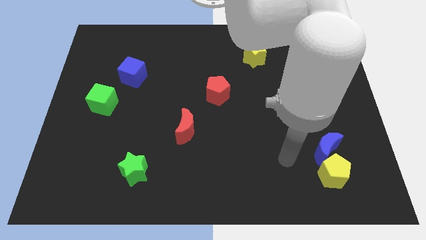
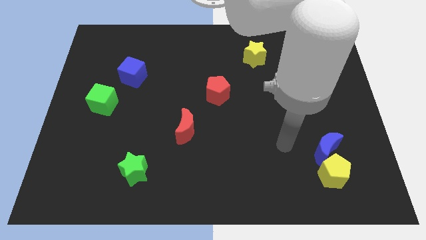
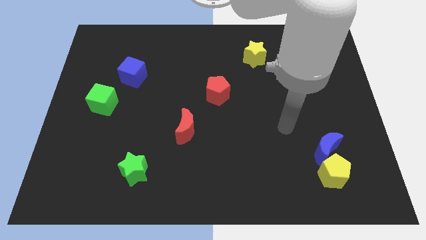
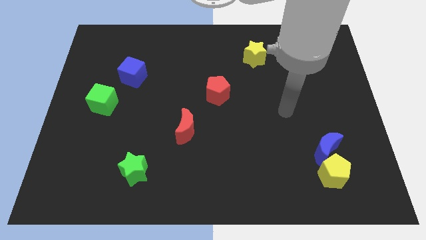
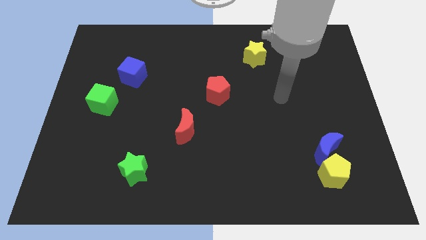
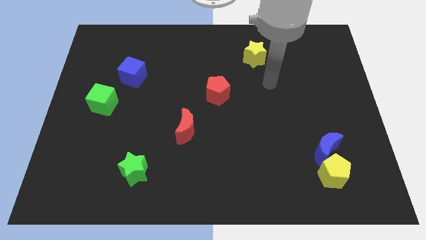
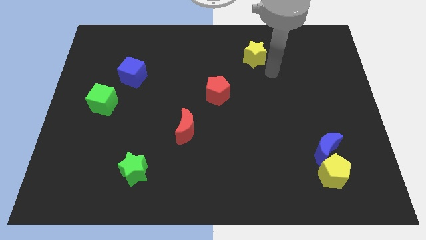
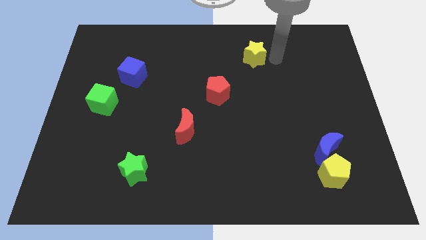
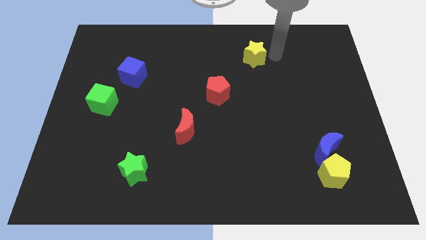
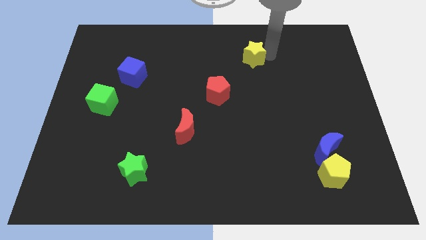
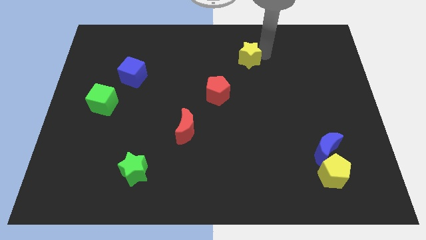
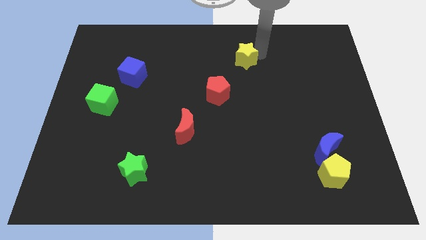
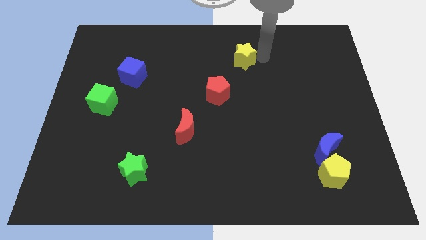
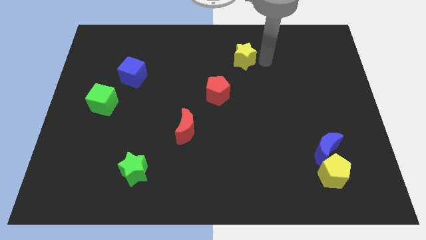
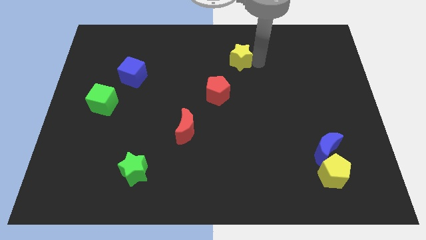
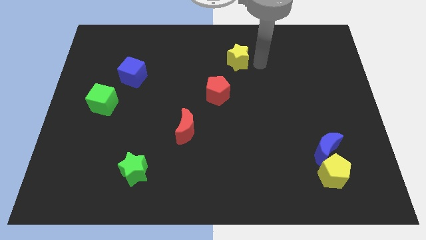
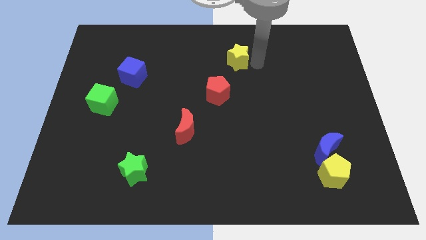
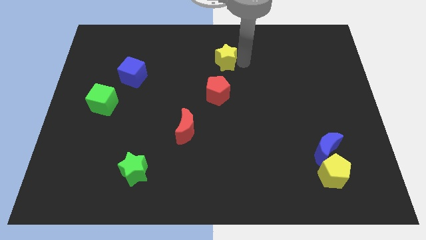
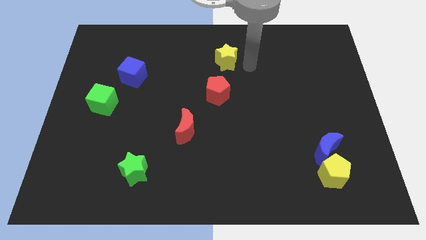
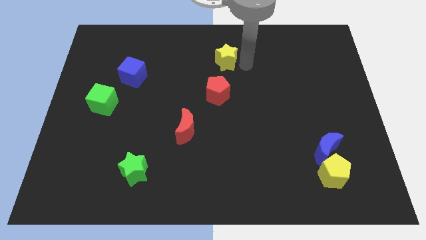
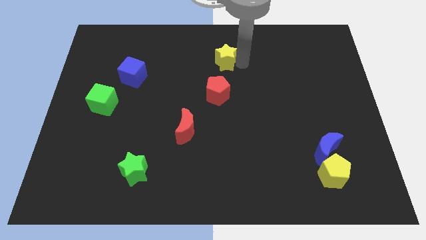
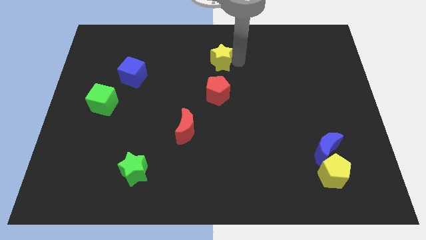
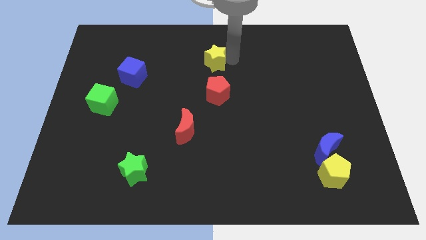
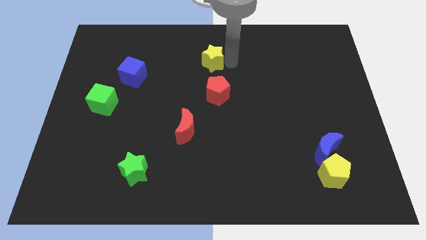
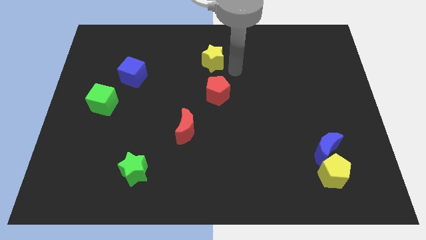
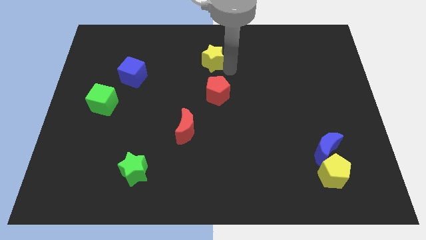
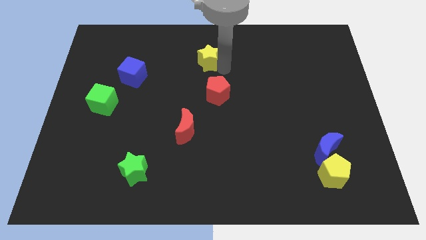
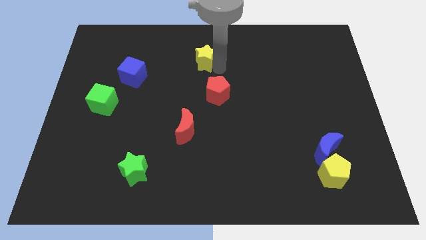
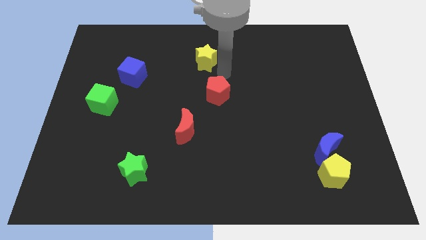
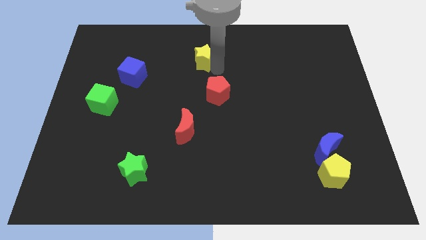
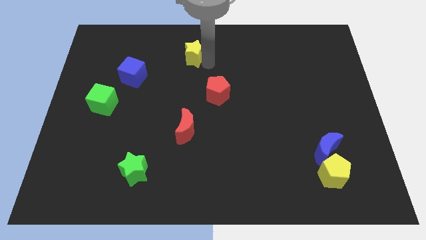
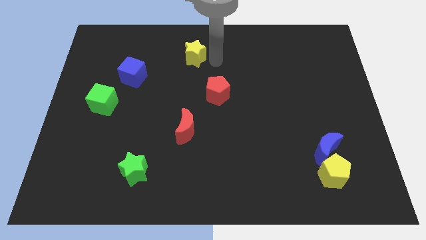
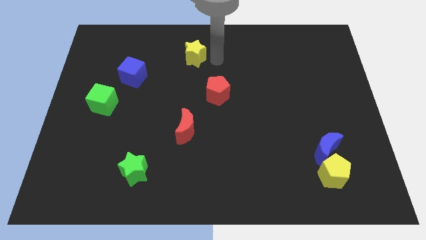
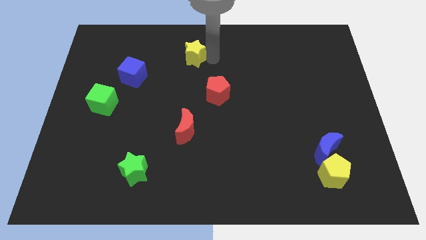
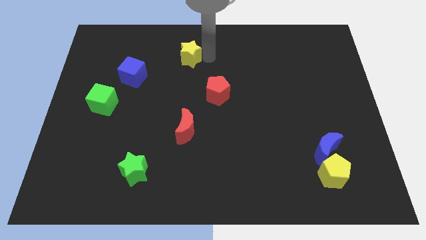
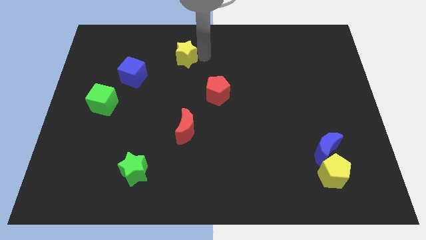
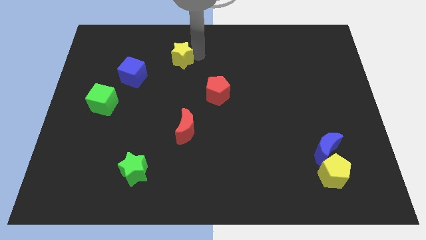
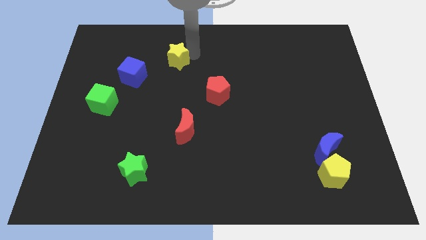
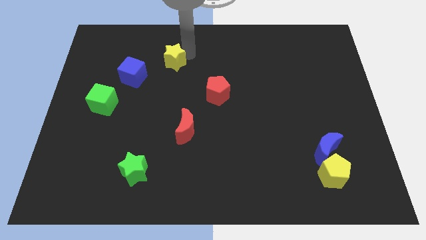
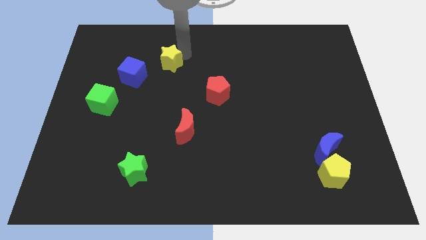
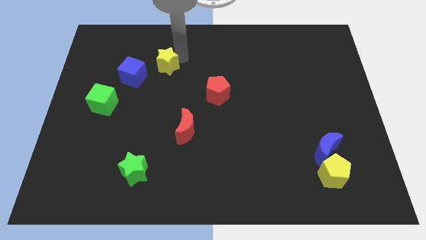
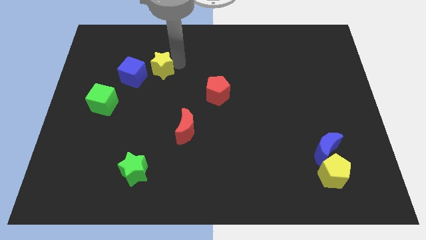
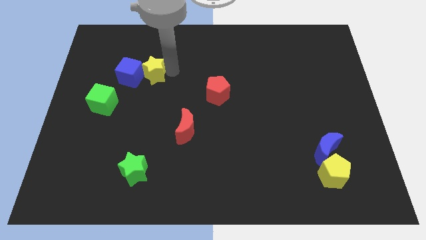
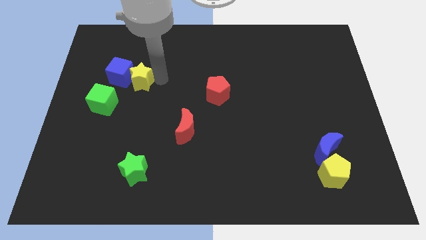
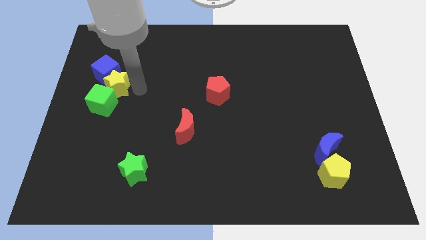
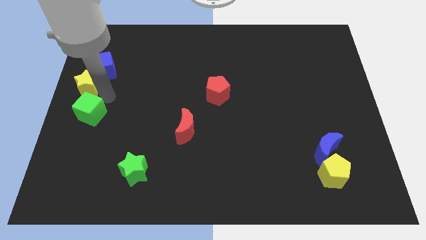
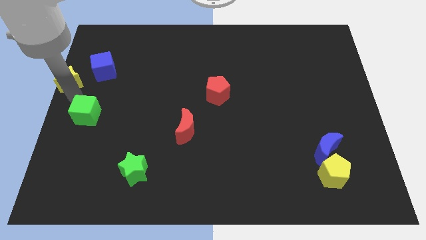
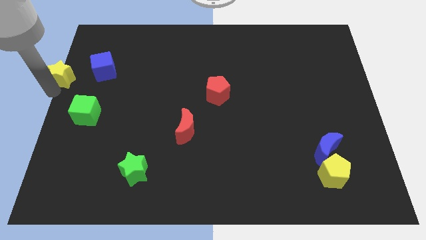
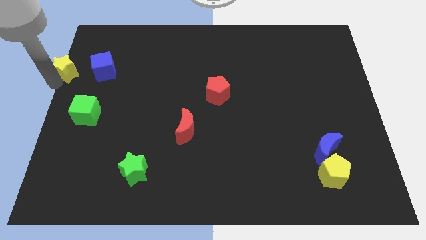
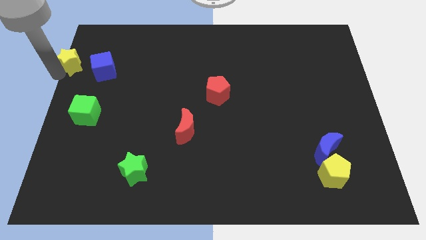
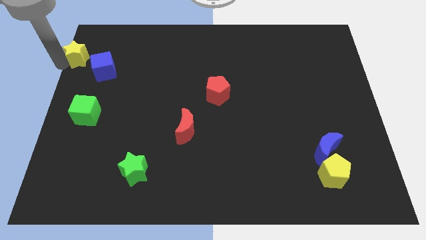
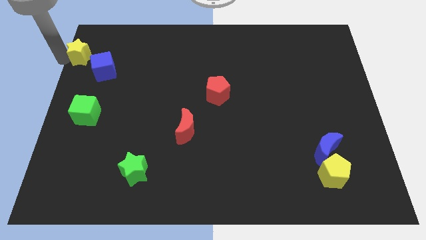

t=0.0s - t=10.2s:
slide the yellow star to the upper left corner
